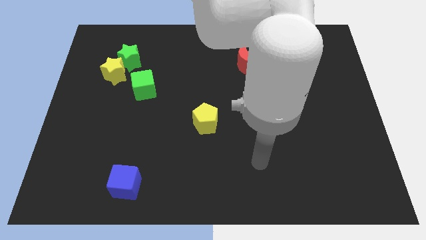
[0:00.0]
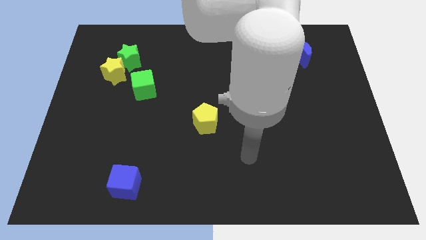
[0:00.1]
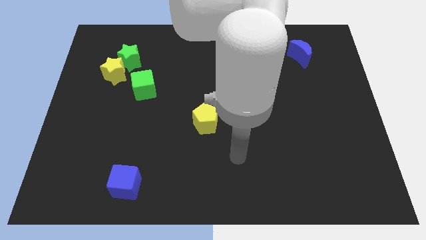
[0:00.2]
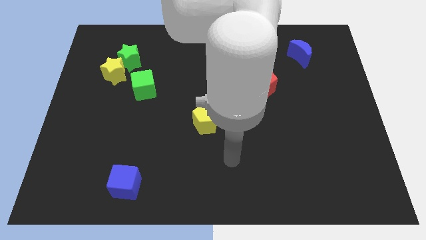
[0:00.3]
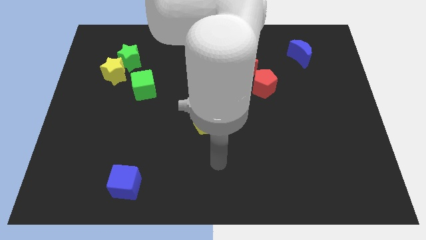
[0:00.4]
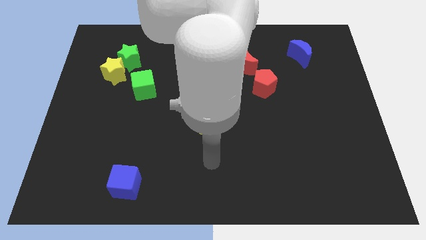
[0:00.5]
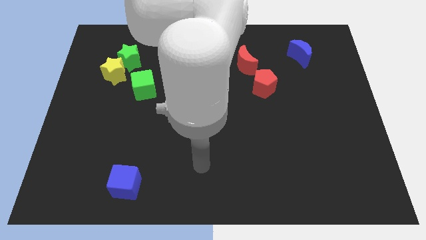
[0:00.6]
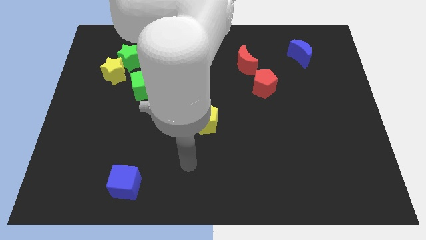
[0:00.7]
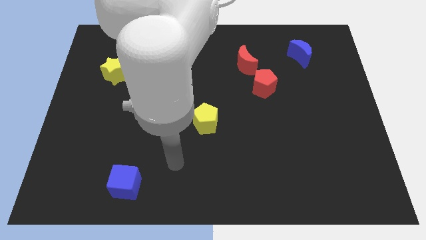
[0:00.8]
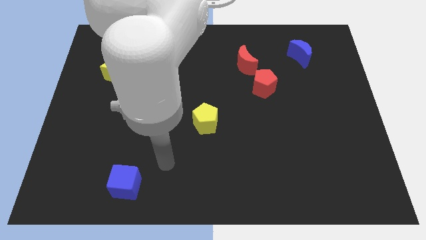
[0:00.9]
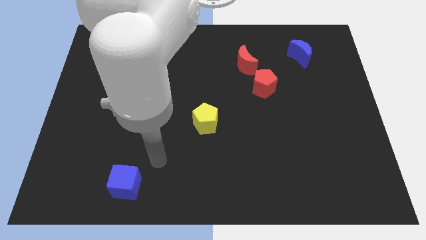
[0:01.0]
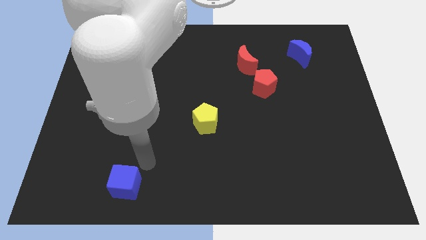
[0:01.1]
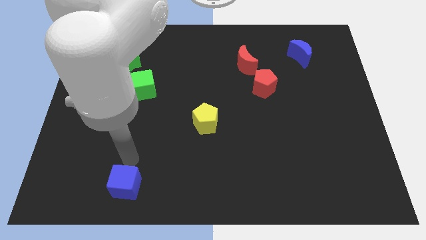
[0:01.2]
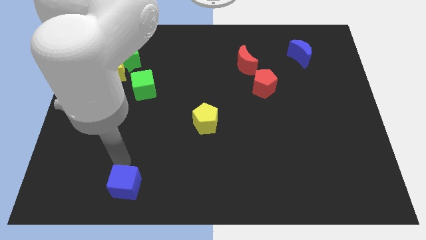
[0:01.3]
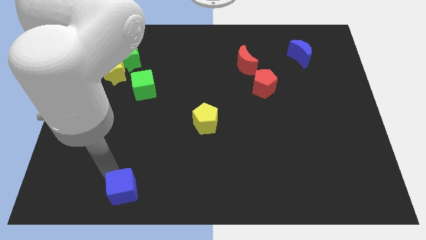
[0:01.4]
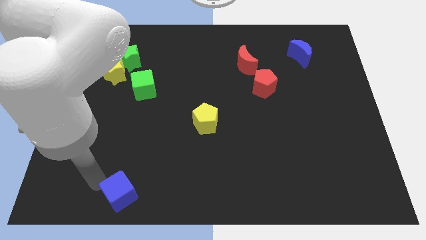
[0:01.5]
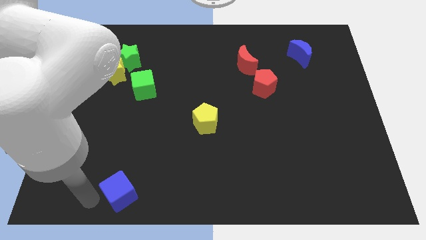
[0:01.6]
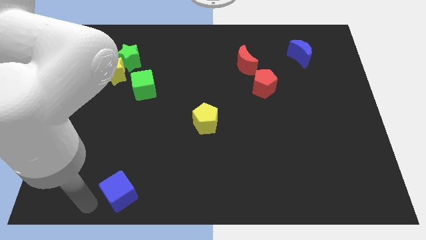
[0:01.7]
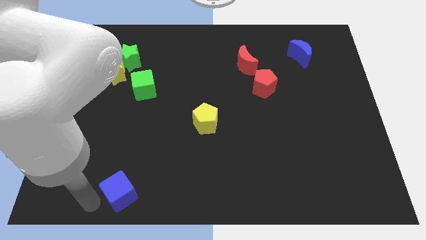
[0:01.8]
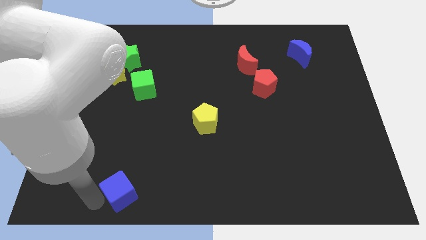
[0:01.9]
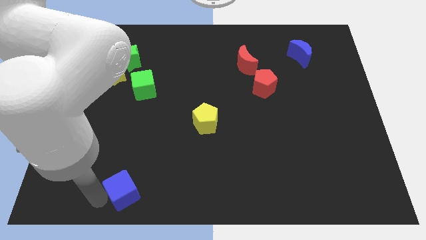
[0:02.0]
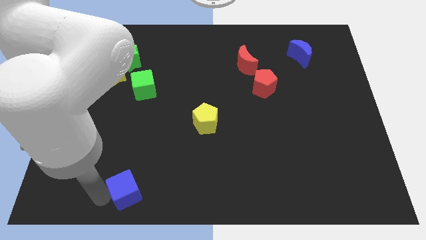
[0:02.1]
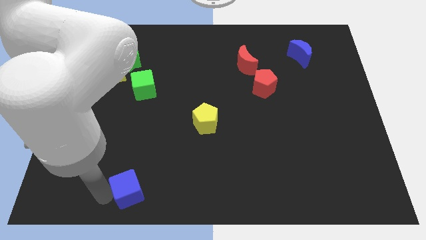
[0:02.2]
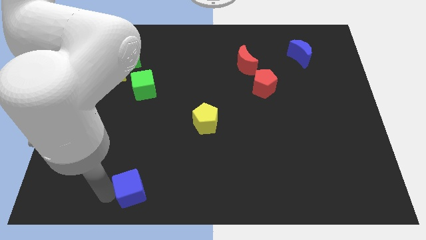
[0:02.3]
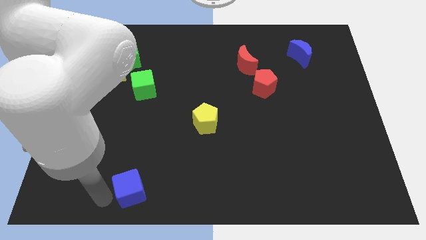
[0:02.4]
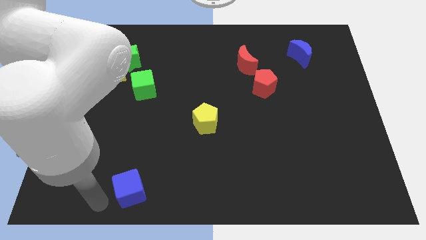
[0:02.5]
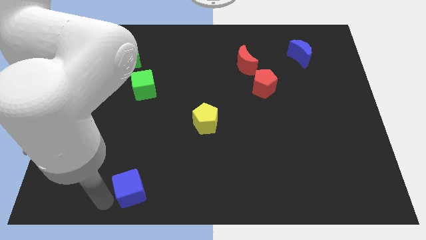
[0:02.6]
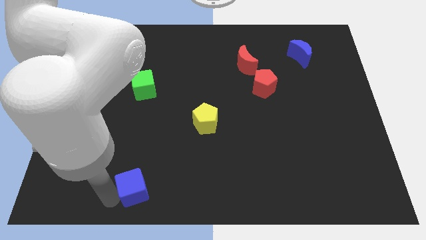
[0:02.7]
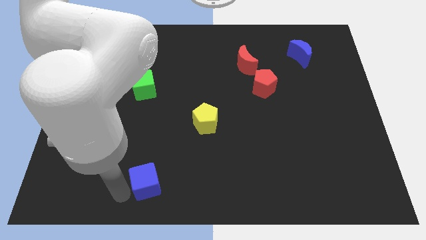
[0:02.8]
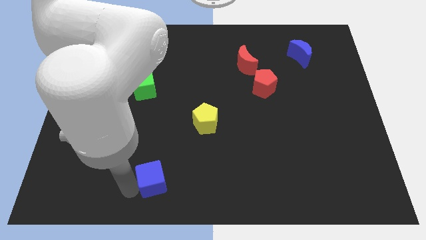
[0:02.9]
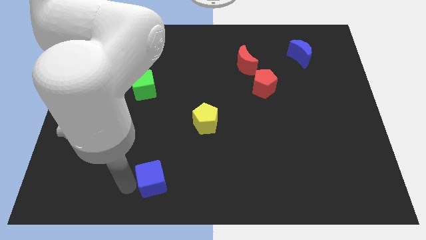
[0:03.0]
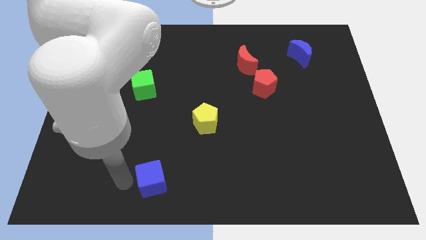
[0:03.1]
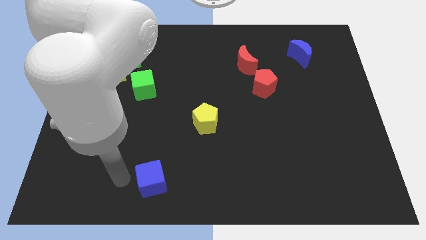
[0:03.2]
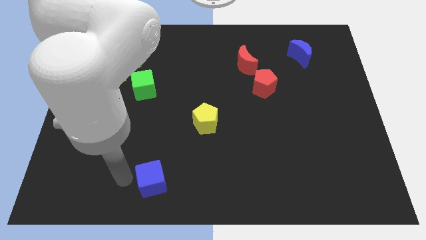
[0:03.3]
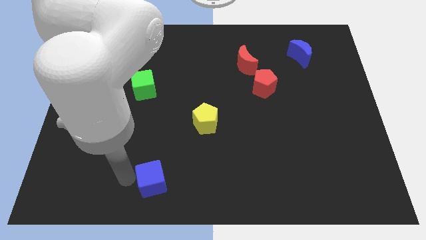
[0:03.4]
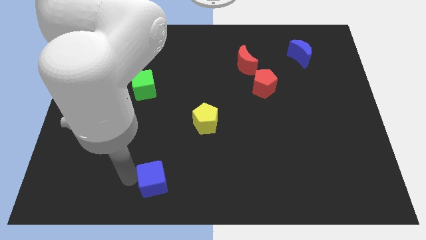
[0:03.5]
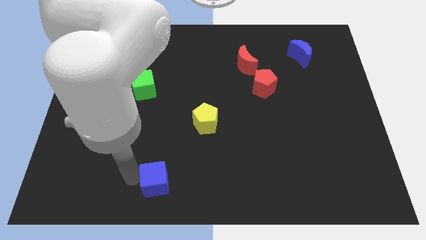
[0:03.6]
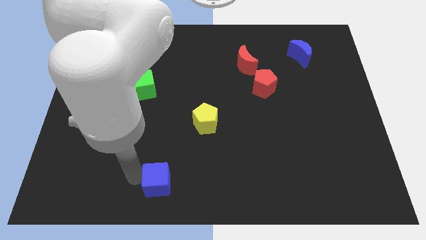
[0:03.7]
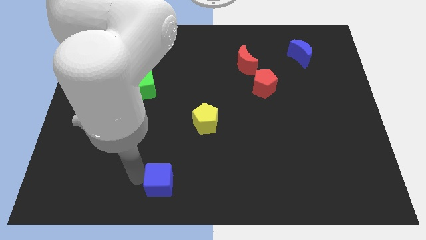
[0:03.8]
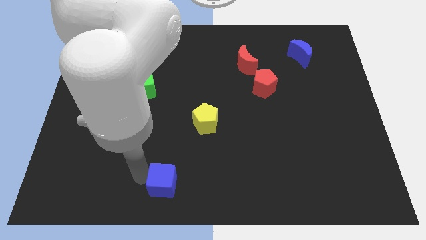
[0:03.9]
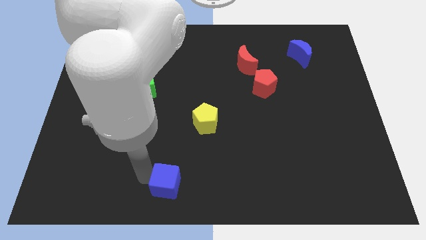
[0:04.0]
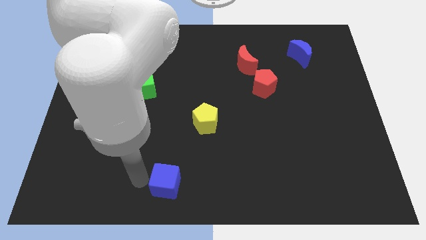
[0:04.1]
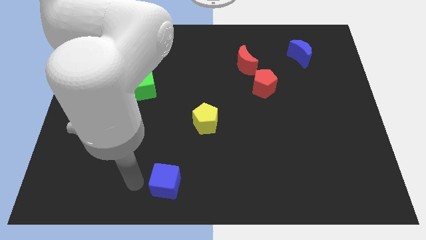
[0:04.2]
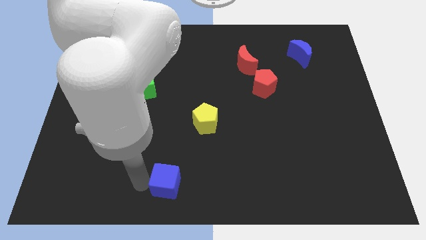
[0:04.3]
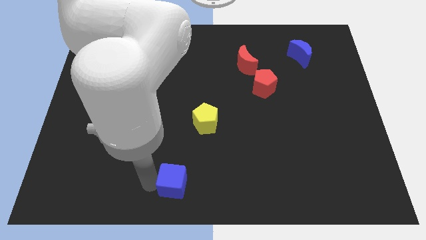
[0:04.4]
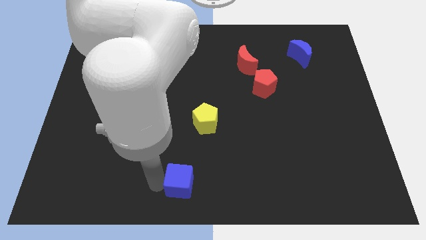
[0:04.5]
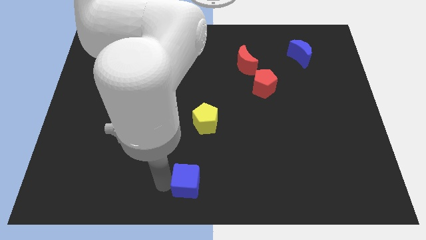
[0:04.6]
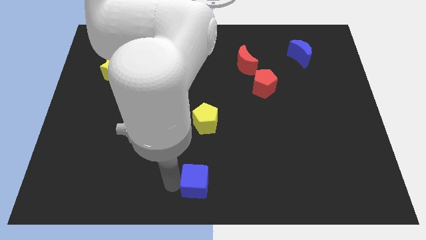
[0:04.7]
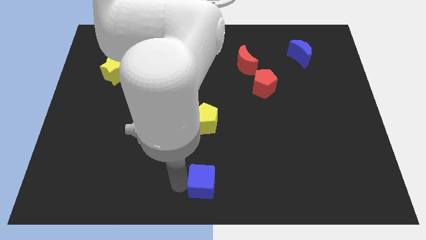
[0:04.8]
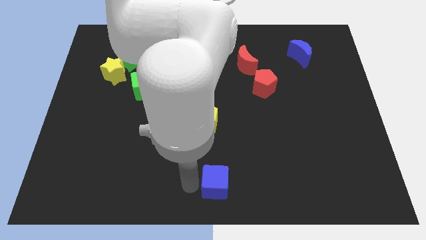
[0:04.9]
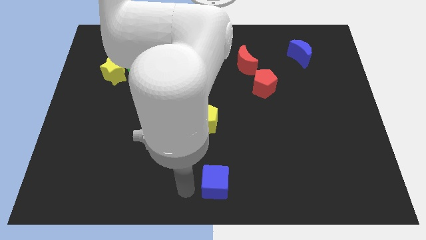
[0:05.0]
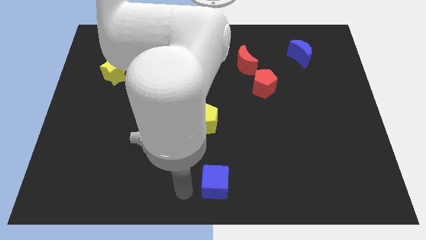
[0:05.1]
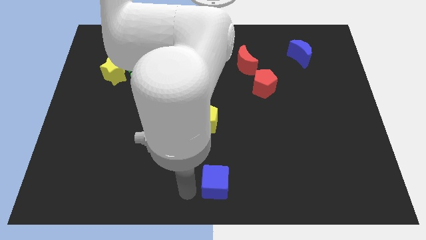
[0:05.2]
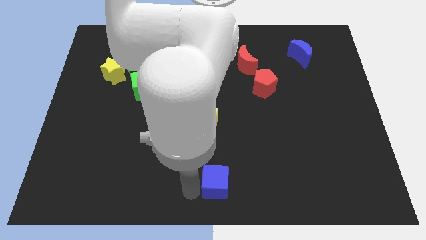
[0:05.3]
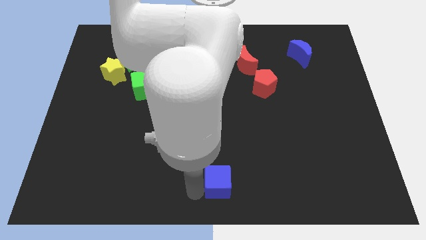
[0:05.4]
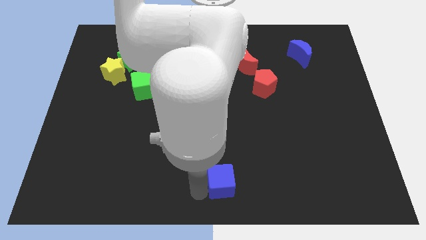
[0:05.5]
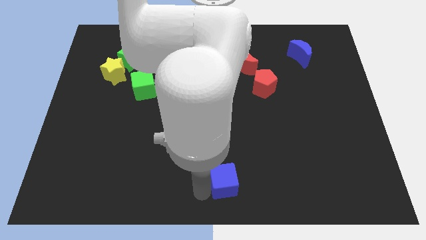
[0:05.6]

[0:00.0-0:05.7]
move the blue cube to the right

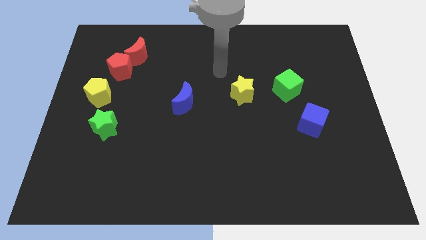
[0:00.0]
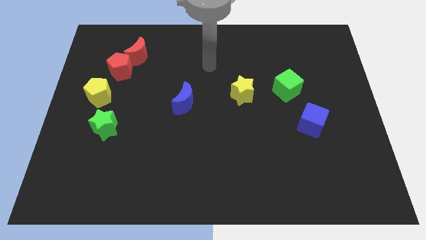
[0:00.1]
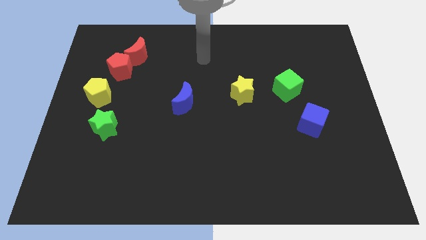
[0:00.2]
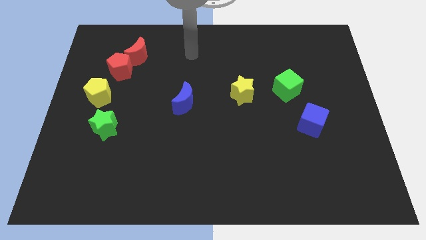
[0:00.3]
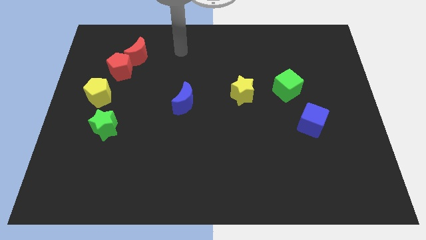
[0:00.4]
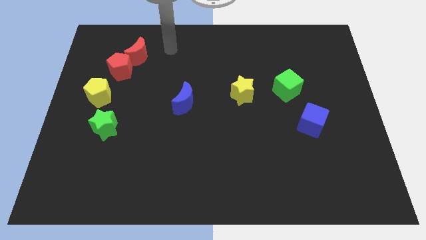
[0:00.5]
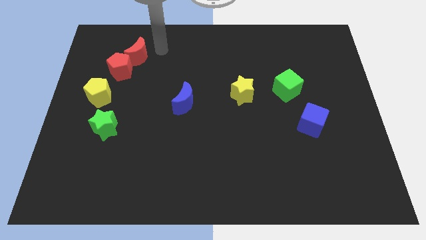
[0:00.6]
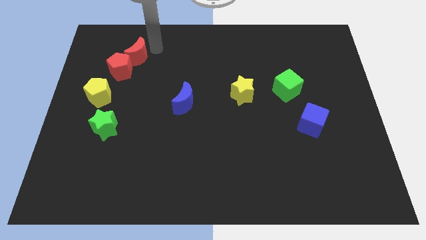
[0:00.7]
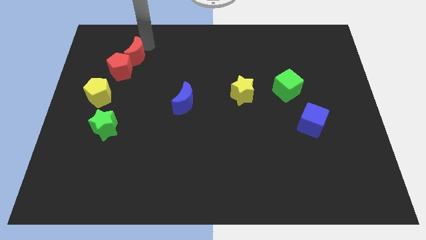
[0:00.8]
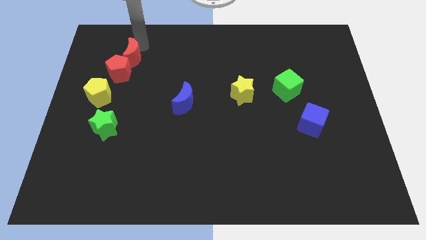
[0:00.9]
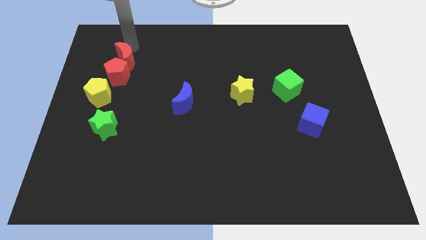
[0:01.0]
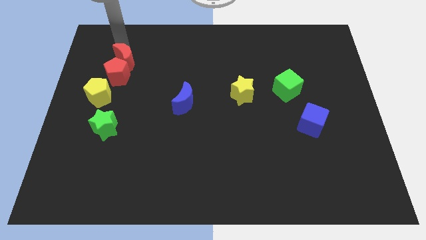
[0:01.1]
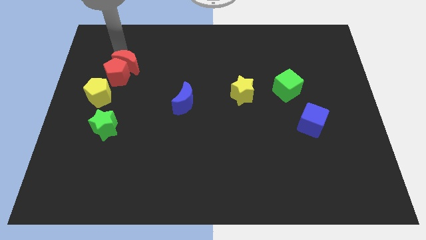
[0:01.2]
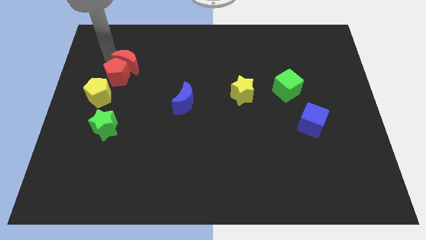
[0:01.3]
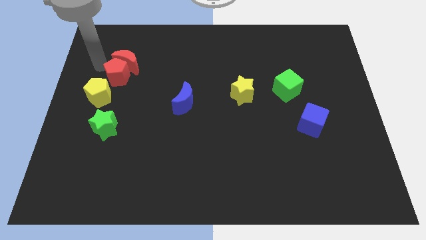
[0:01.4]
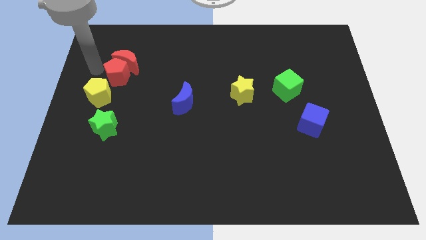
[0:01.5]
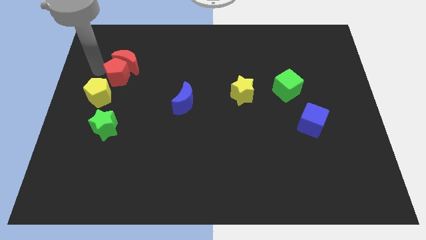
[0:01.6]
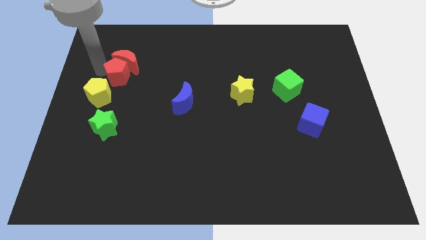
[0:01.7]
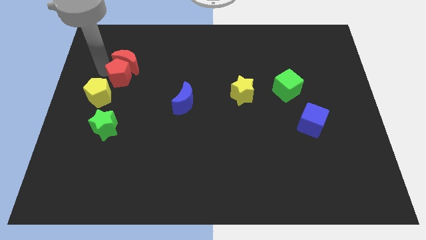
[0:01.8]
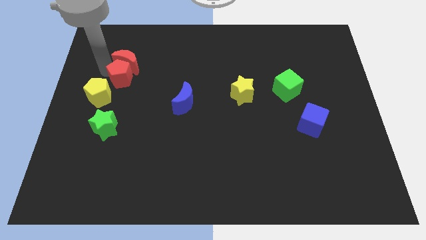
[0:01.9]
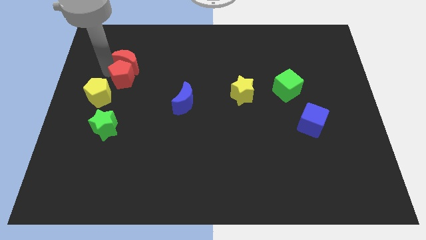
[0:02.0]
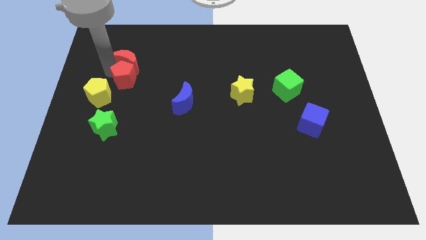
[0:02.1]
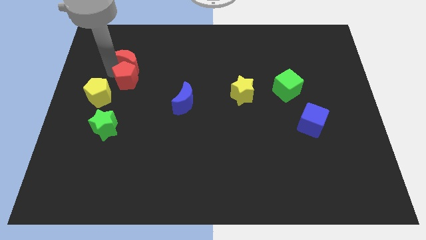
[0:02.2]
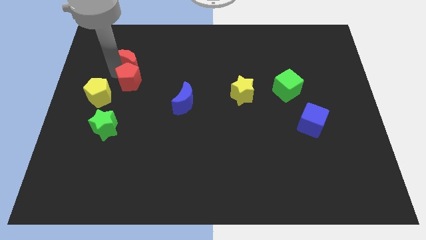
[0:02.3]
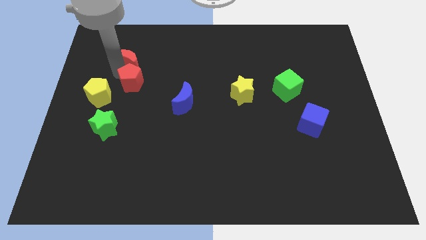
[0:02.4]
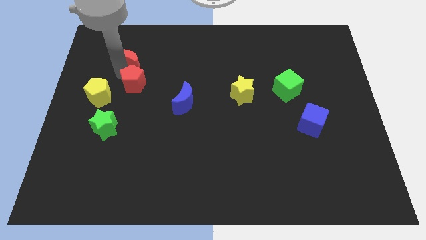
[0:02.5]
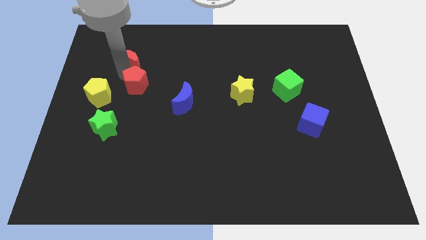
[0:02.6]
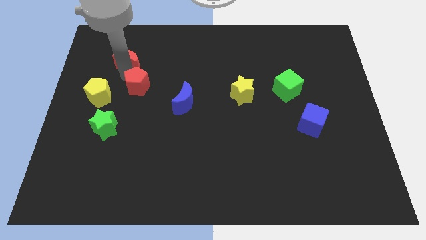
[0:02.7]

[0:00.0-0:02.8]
move the red pentagon diagonally downwards and to the right slightly
